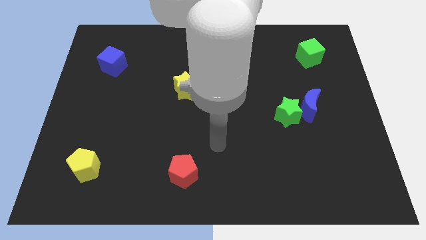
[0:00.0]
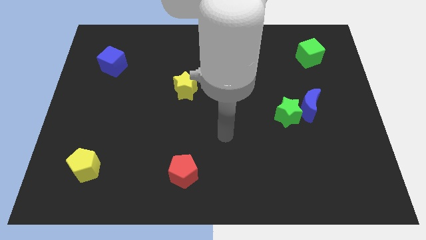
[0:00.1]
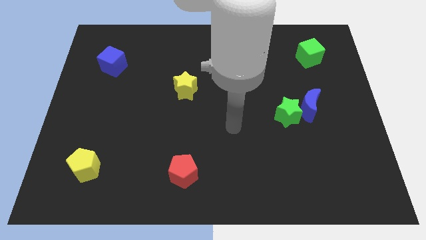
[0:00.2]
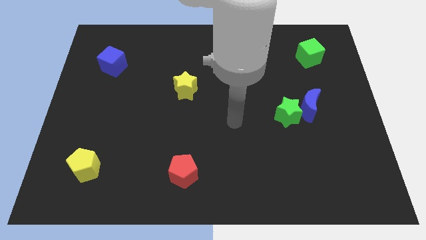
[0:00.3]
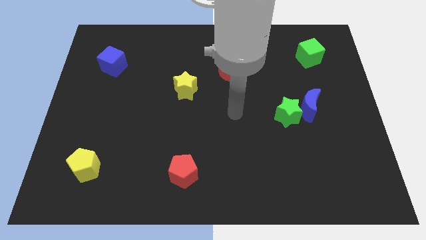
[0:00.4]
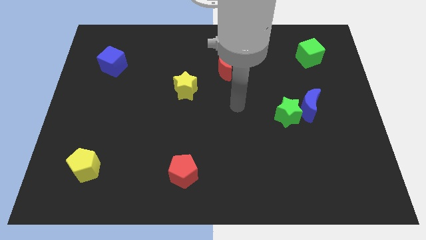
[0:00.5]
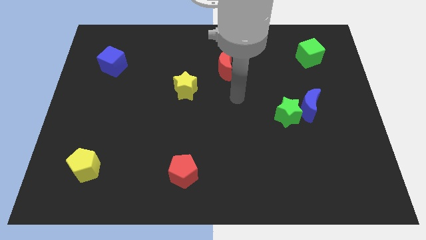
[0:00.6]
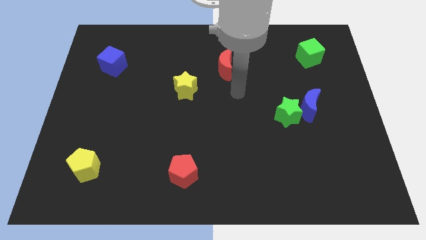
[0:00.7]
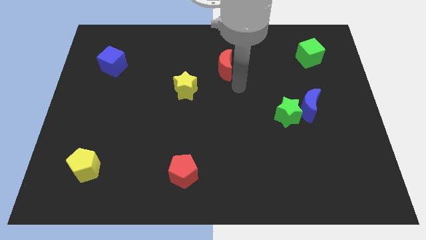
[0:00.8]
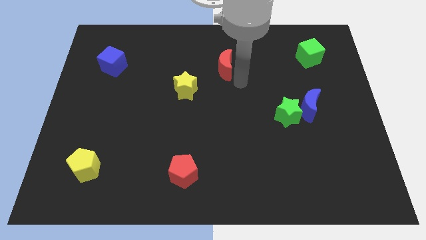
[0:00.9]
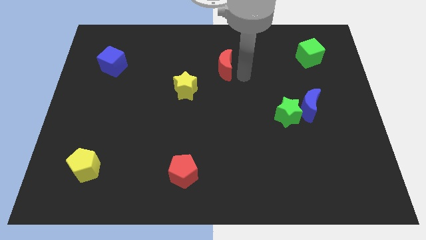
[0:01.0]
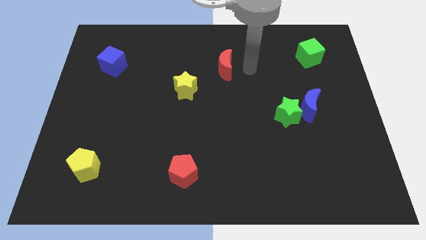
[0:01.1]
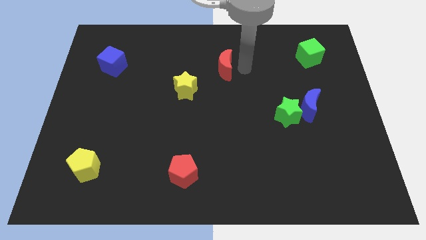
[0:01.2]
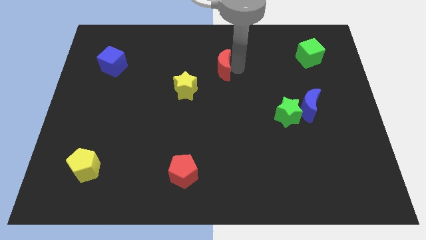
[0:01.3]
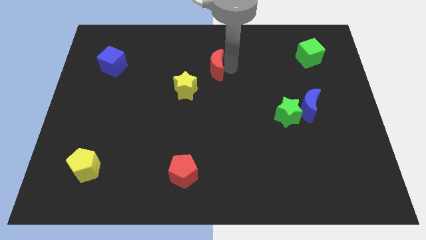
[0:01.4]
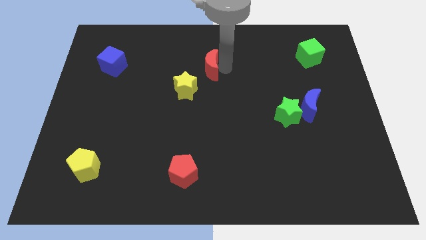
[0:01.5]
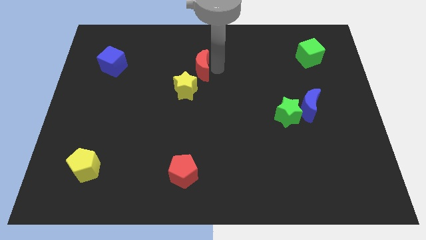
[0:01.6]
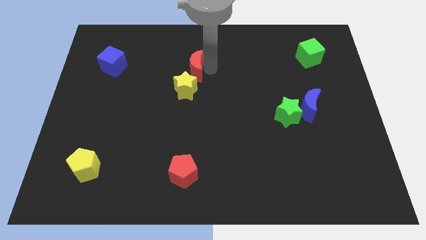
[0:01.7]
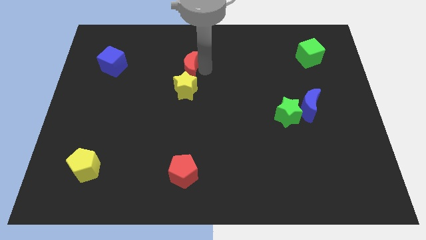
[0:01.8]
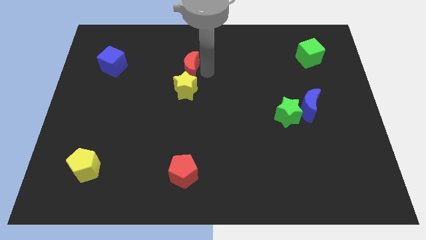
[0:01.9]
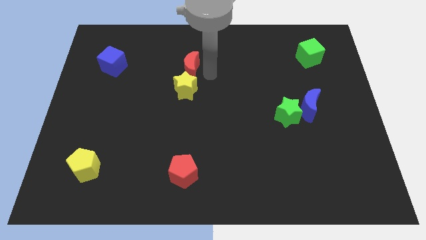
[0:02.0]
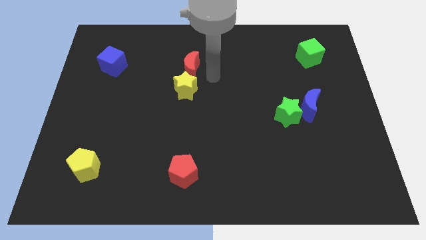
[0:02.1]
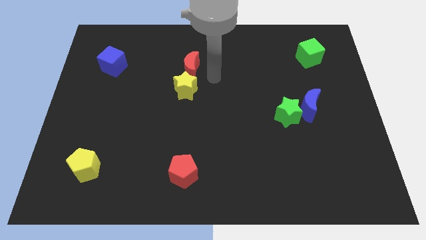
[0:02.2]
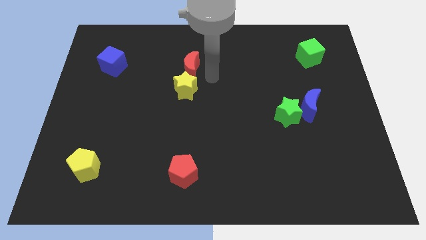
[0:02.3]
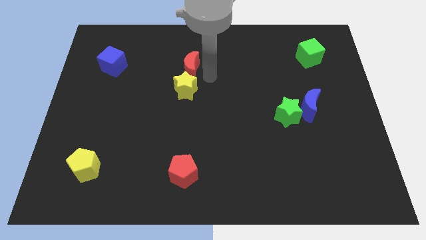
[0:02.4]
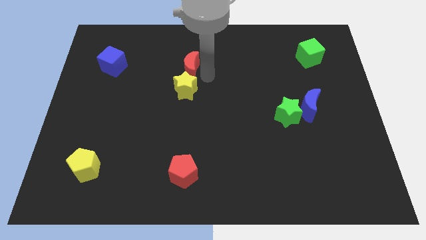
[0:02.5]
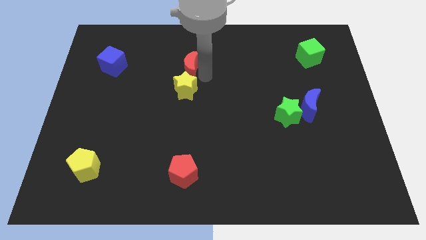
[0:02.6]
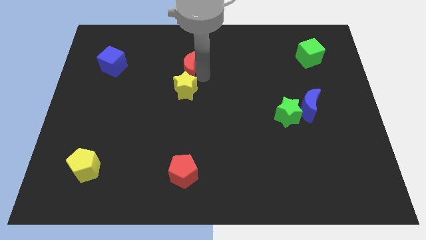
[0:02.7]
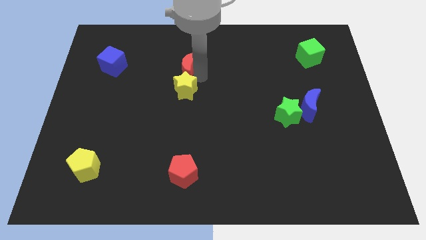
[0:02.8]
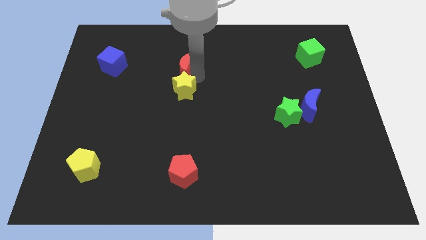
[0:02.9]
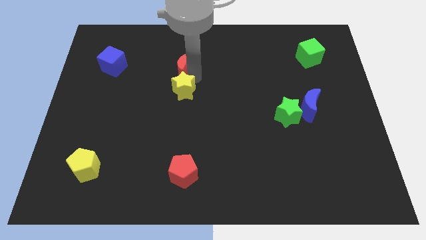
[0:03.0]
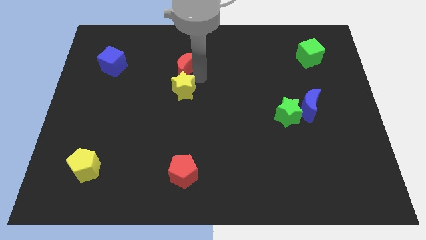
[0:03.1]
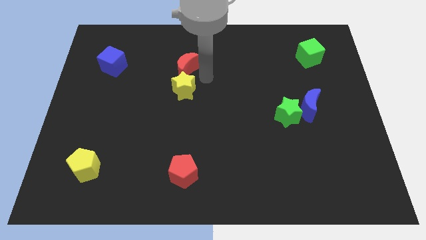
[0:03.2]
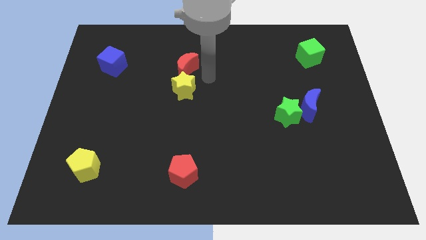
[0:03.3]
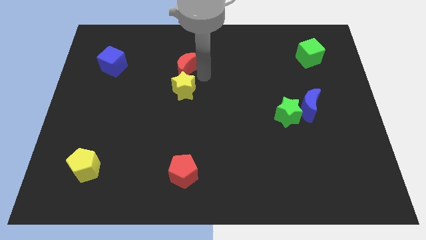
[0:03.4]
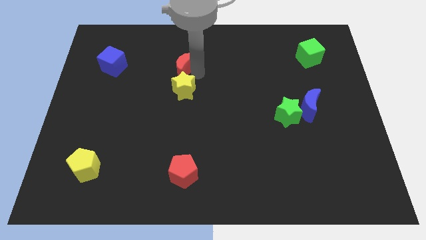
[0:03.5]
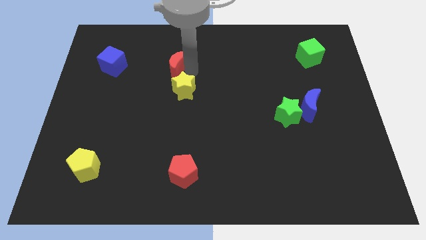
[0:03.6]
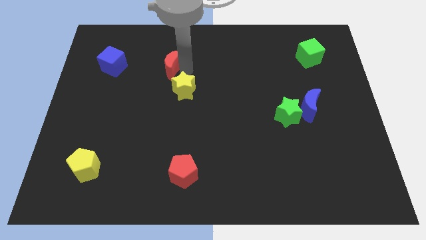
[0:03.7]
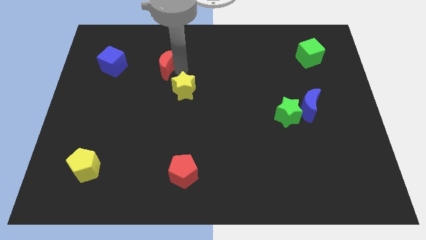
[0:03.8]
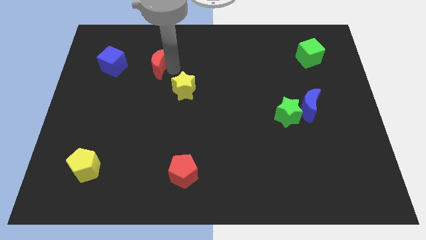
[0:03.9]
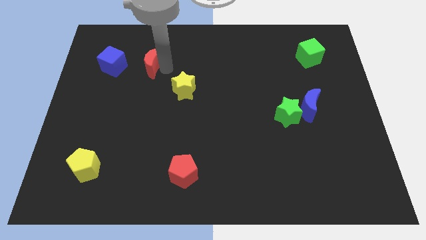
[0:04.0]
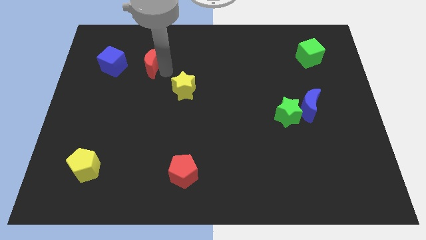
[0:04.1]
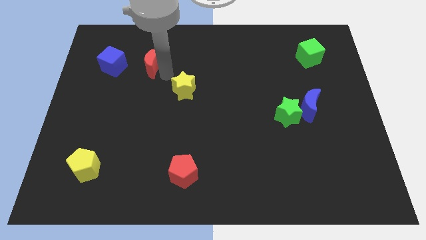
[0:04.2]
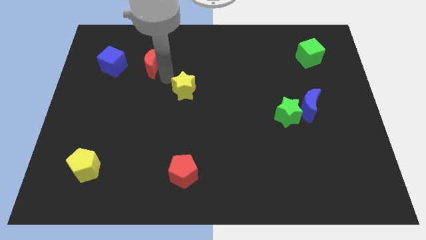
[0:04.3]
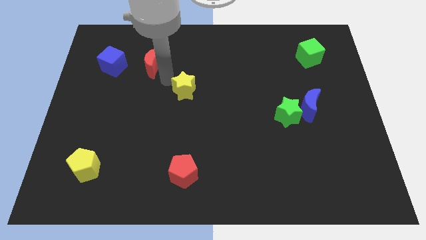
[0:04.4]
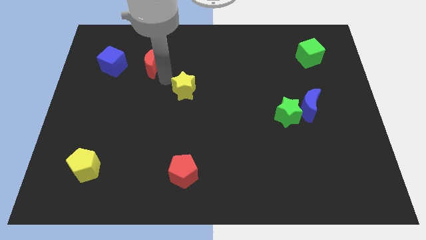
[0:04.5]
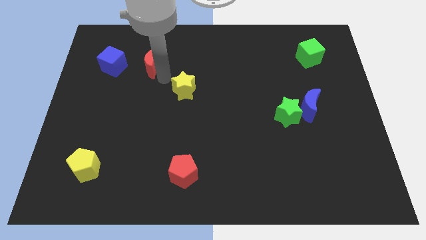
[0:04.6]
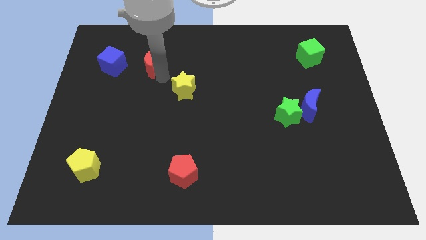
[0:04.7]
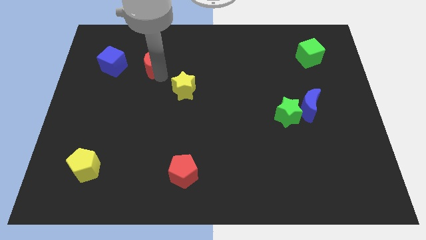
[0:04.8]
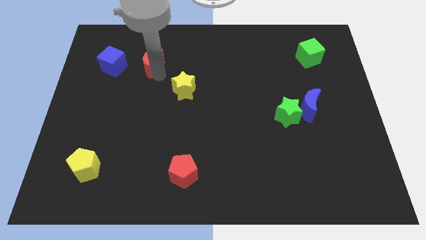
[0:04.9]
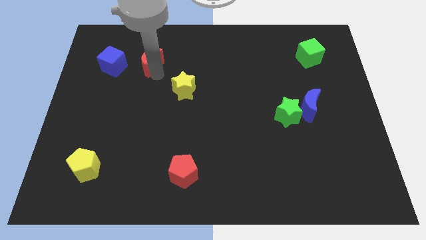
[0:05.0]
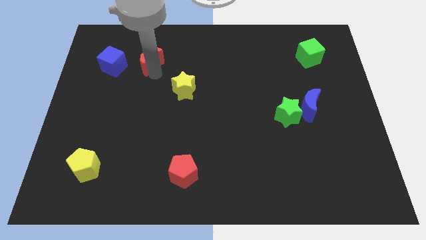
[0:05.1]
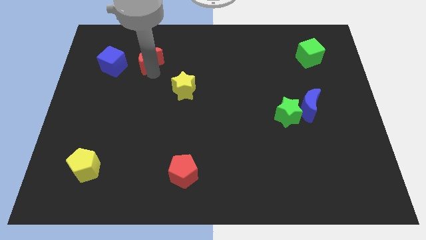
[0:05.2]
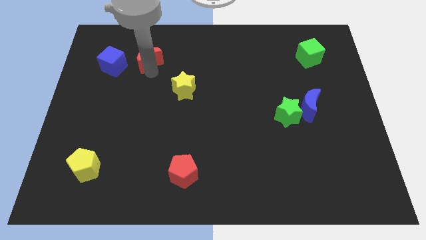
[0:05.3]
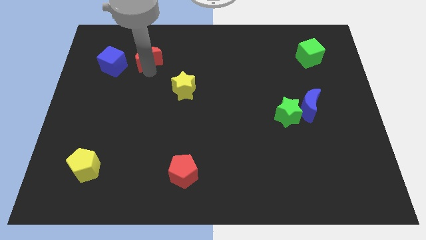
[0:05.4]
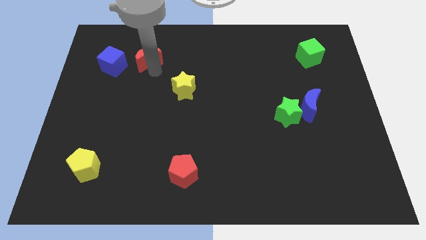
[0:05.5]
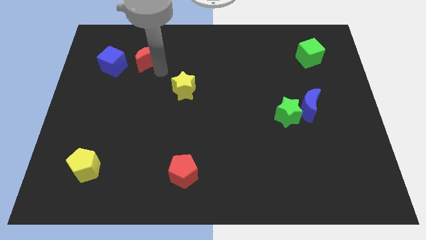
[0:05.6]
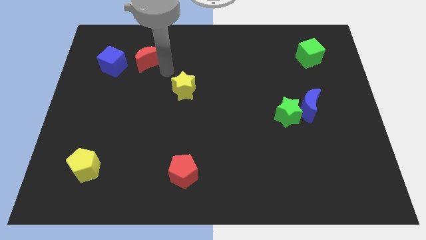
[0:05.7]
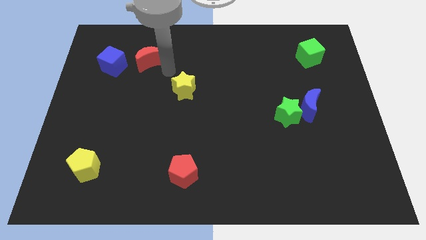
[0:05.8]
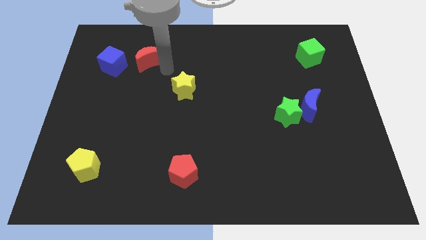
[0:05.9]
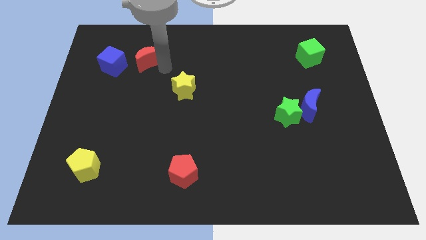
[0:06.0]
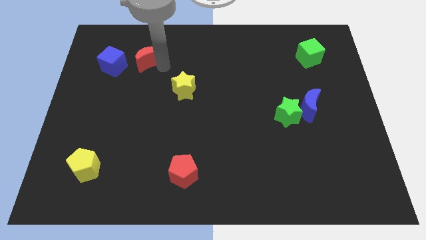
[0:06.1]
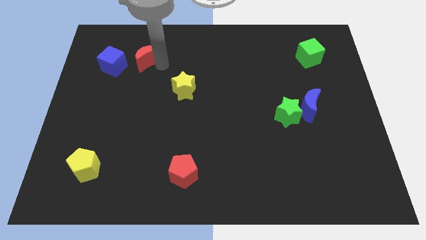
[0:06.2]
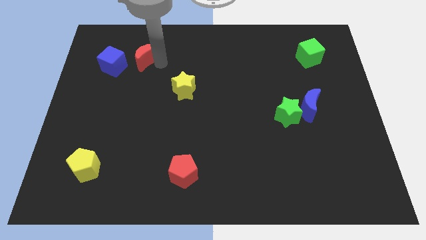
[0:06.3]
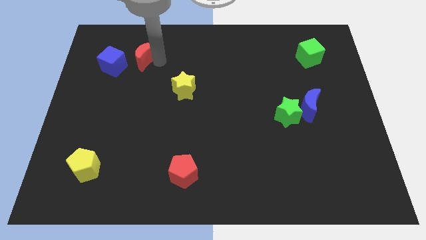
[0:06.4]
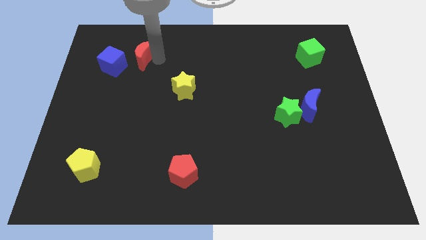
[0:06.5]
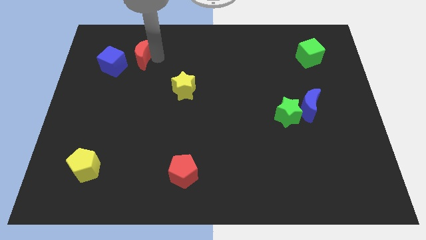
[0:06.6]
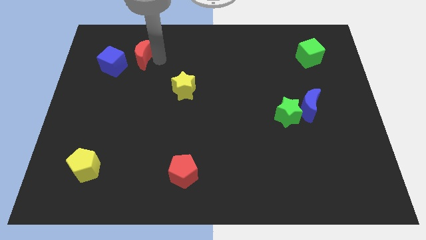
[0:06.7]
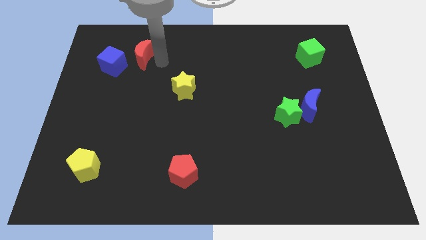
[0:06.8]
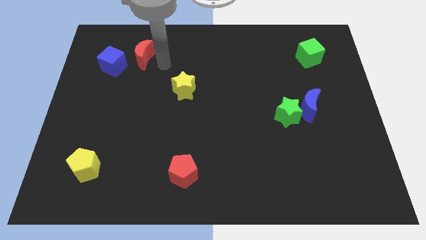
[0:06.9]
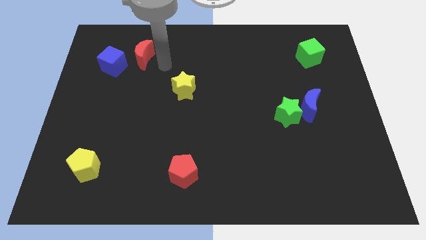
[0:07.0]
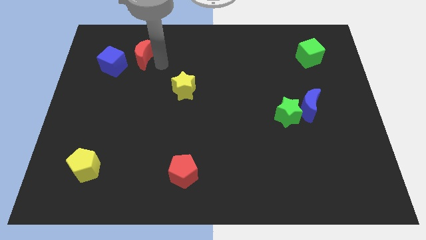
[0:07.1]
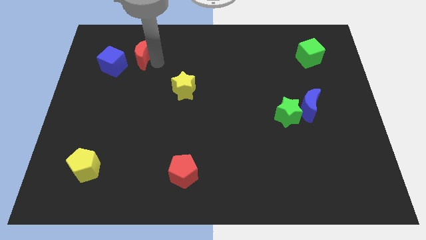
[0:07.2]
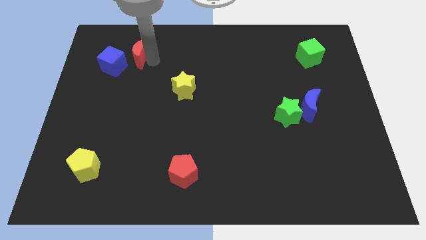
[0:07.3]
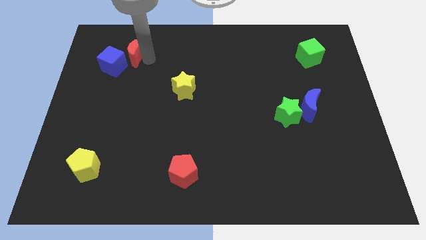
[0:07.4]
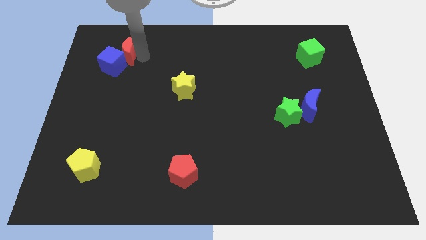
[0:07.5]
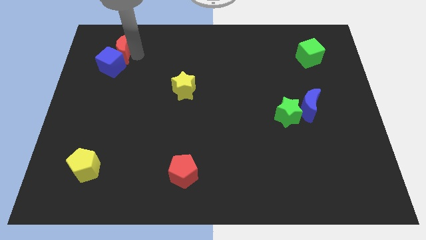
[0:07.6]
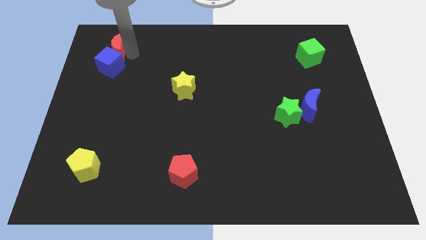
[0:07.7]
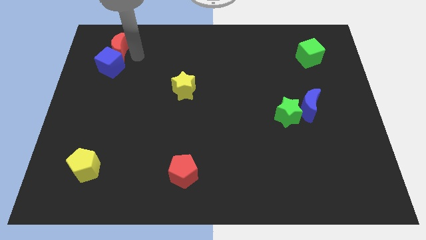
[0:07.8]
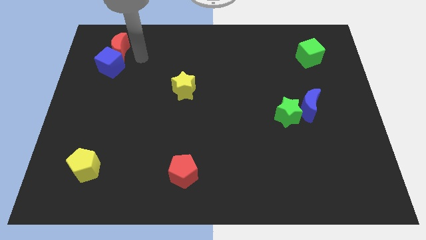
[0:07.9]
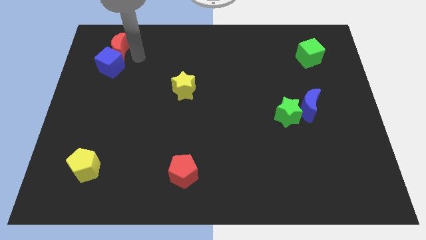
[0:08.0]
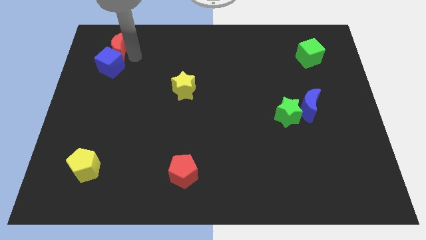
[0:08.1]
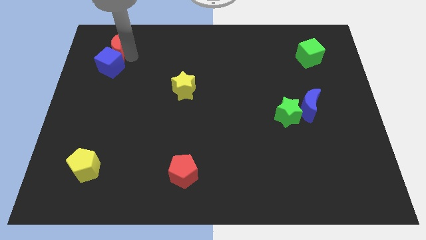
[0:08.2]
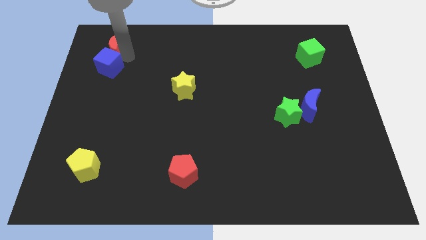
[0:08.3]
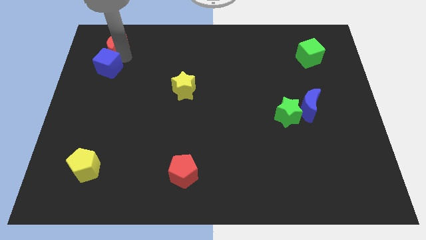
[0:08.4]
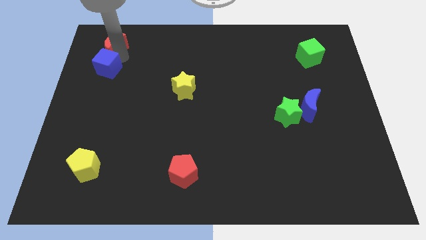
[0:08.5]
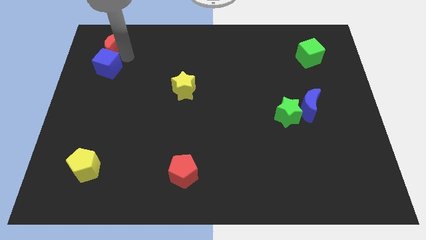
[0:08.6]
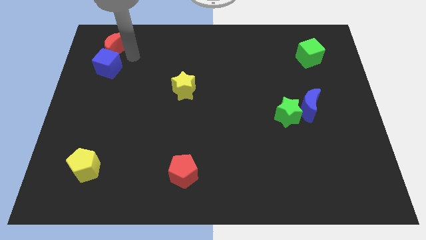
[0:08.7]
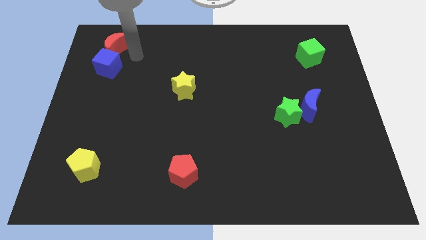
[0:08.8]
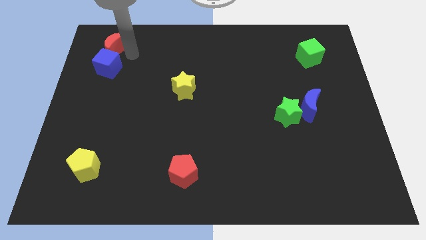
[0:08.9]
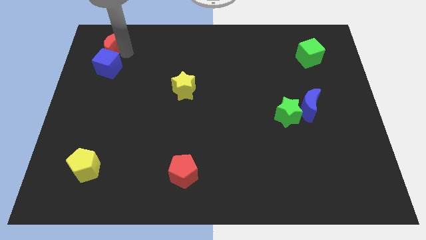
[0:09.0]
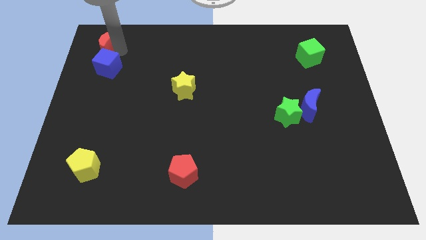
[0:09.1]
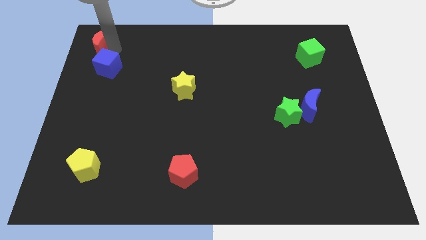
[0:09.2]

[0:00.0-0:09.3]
slide the red moon to the top left of the board
